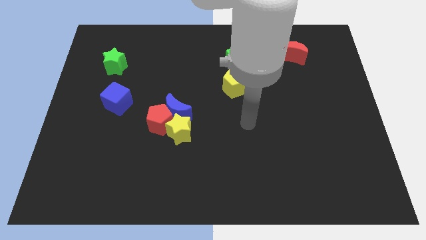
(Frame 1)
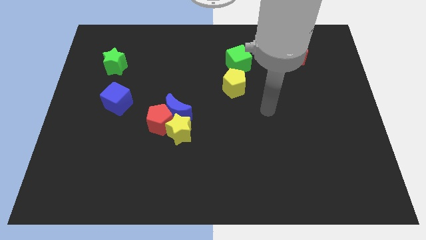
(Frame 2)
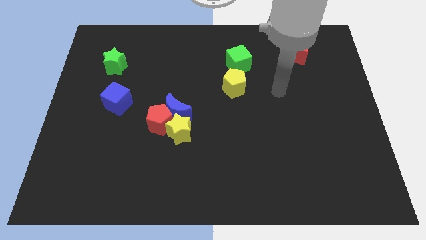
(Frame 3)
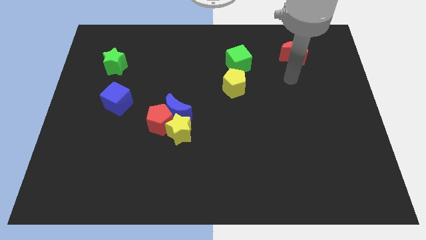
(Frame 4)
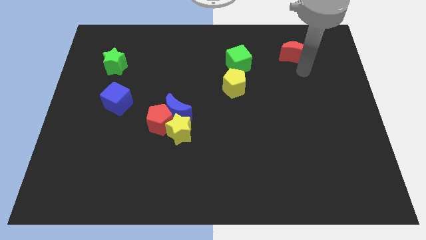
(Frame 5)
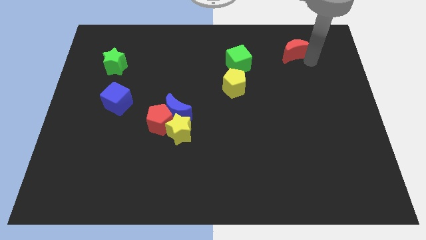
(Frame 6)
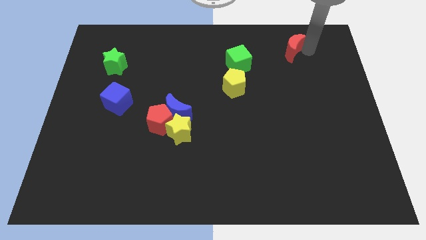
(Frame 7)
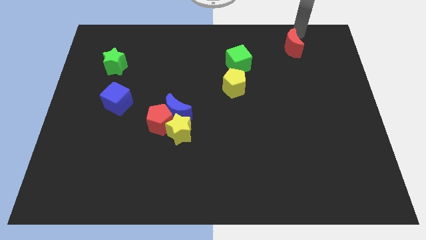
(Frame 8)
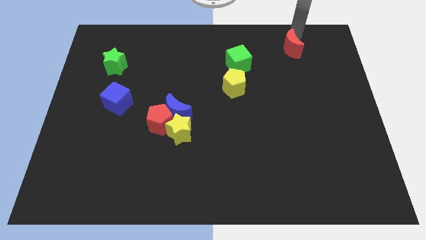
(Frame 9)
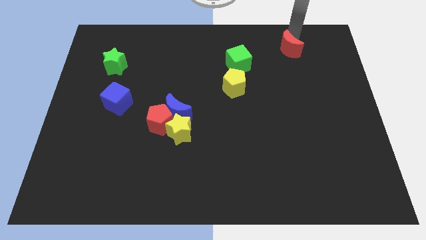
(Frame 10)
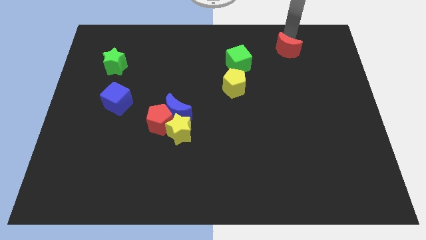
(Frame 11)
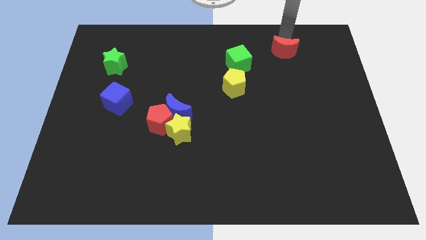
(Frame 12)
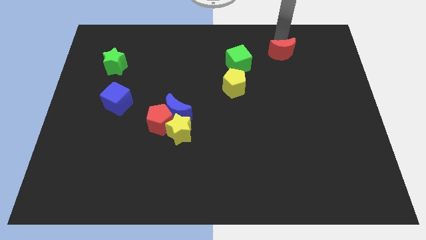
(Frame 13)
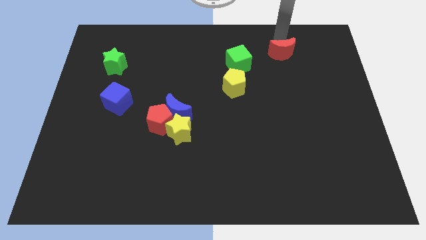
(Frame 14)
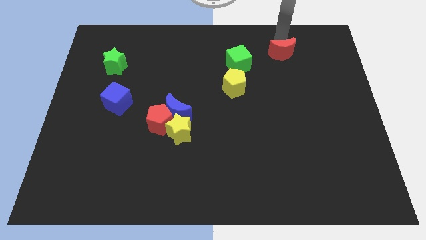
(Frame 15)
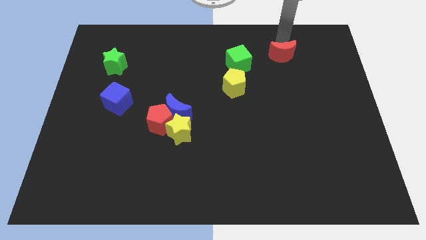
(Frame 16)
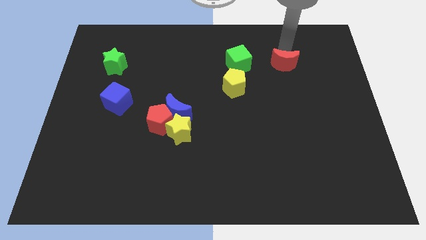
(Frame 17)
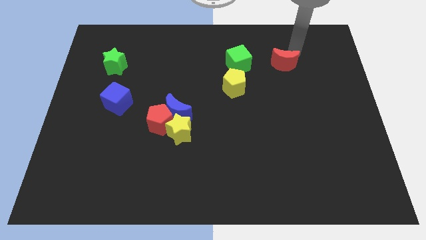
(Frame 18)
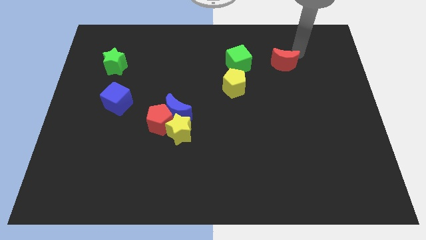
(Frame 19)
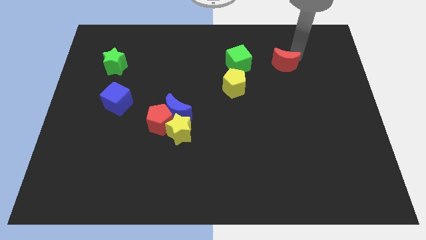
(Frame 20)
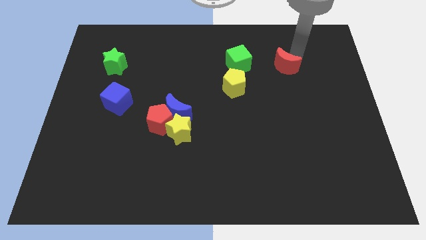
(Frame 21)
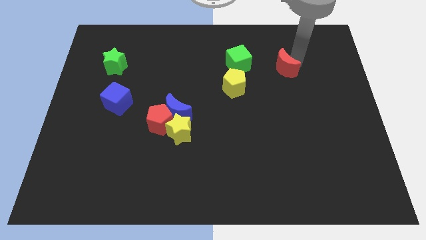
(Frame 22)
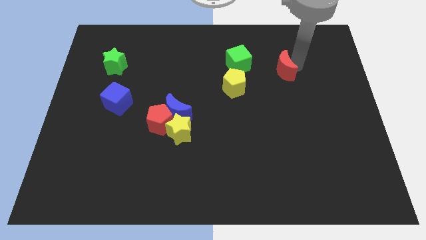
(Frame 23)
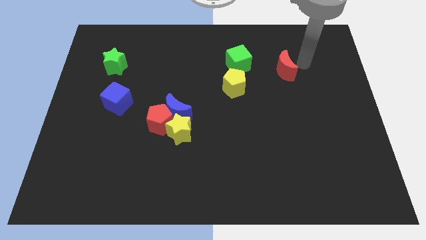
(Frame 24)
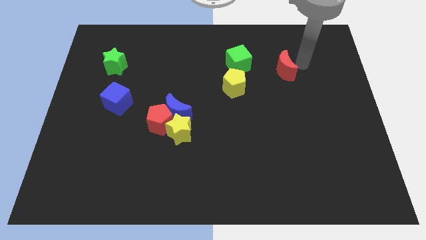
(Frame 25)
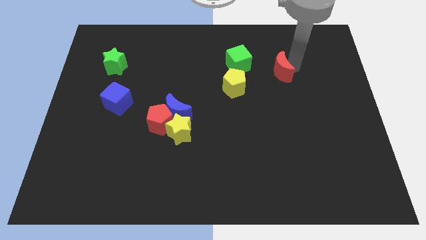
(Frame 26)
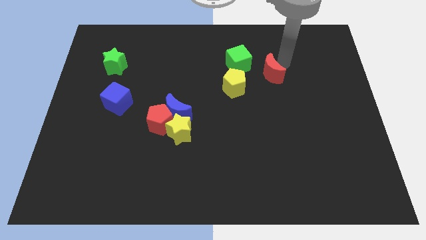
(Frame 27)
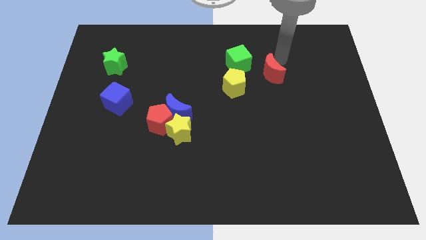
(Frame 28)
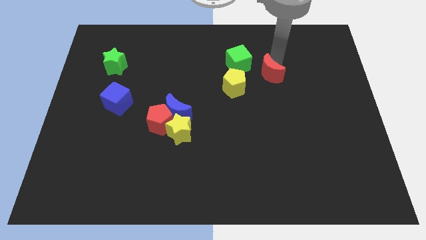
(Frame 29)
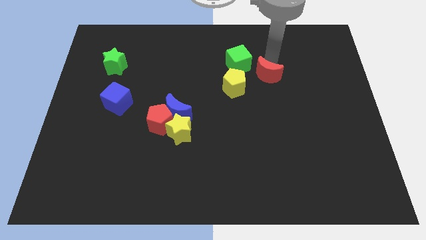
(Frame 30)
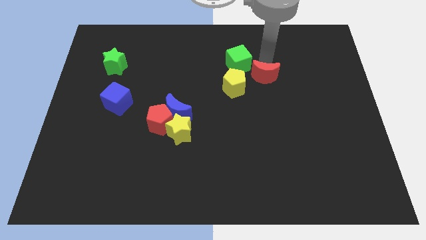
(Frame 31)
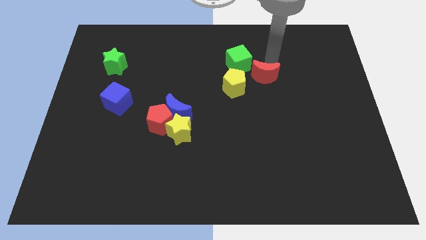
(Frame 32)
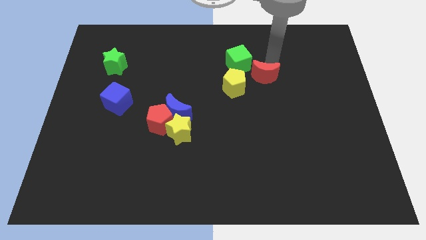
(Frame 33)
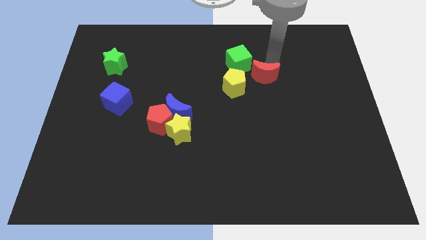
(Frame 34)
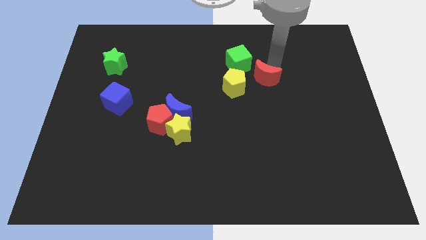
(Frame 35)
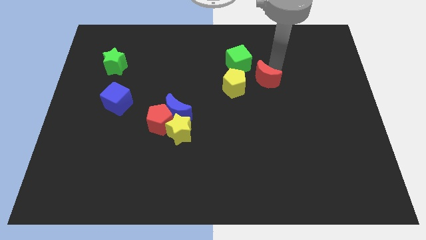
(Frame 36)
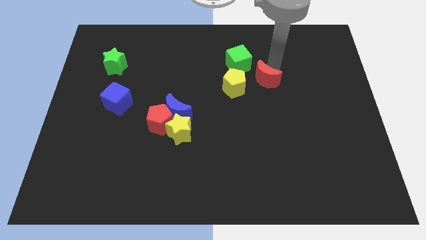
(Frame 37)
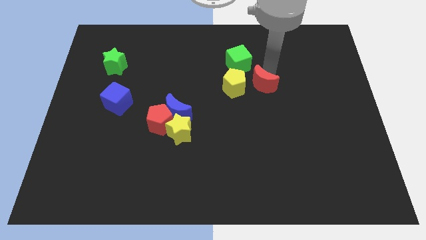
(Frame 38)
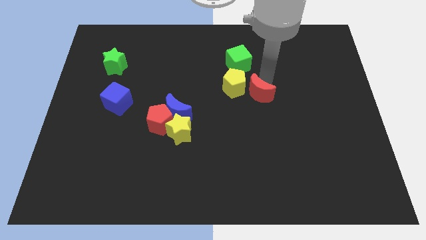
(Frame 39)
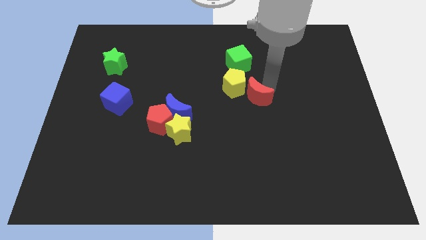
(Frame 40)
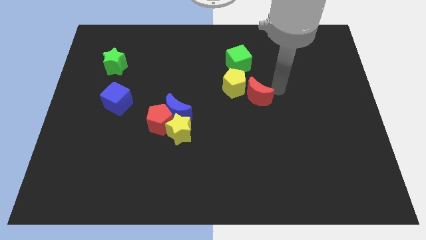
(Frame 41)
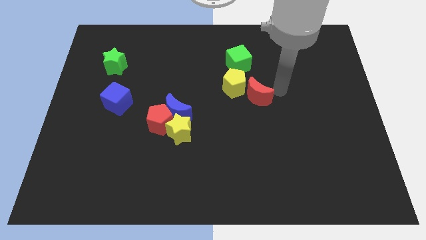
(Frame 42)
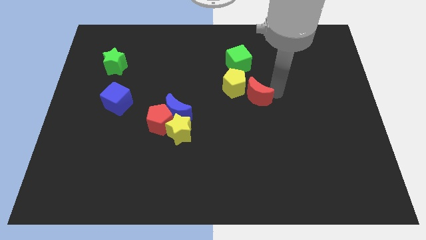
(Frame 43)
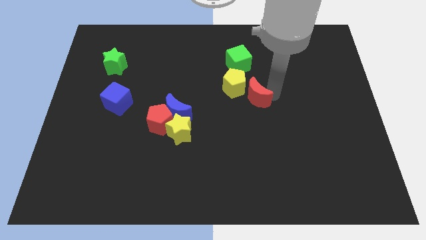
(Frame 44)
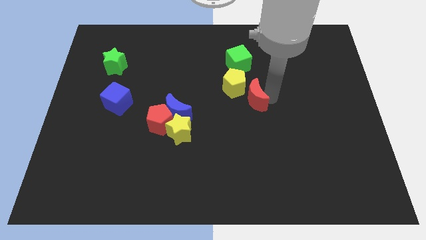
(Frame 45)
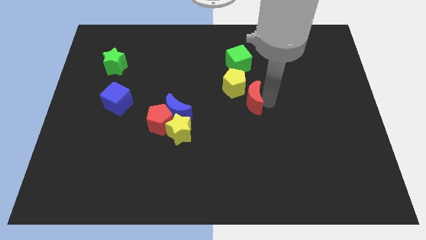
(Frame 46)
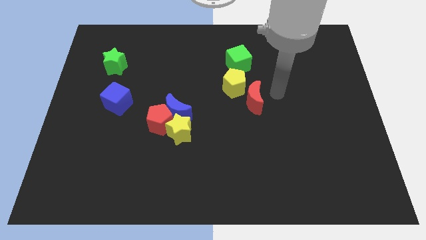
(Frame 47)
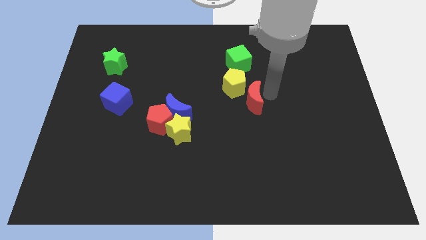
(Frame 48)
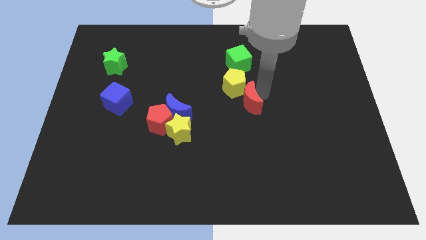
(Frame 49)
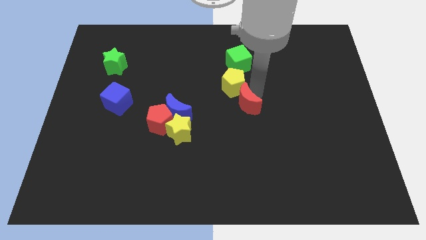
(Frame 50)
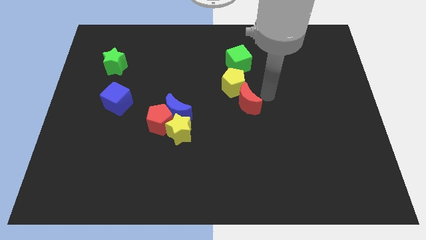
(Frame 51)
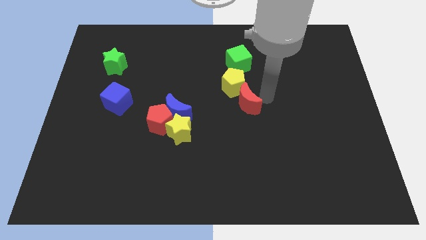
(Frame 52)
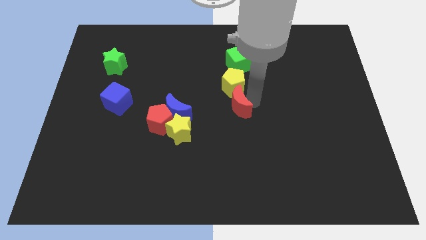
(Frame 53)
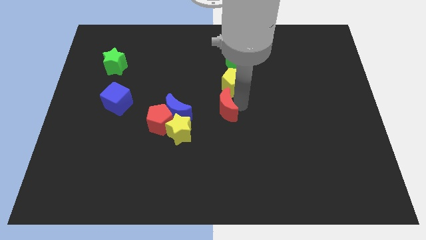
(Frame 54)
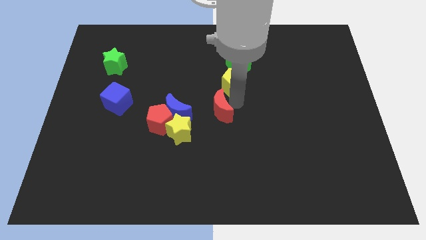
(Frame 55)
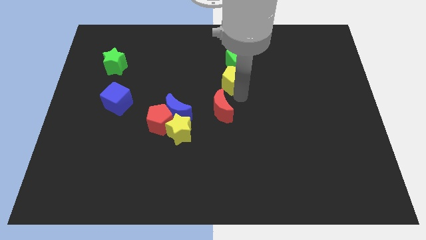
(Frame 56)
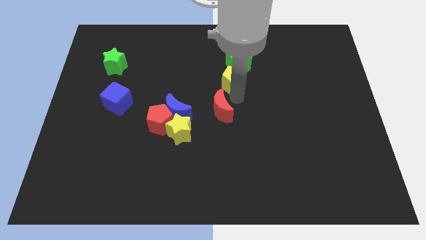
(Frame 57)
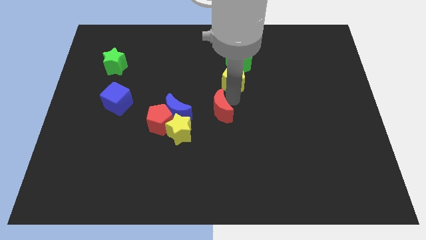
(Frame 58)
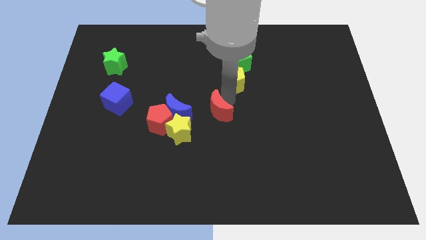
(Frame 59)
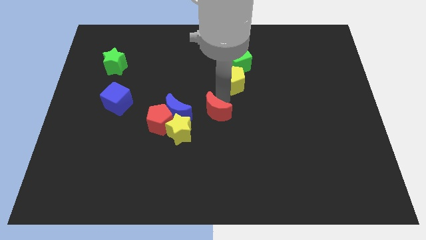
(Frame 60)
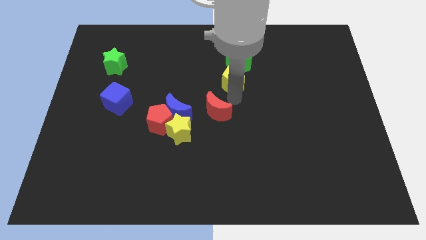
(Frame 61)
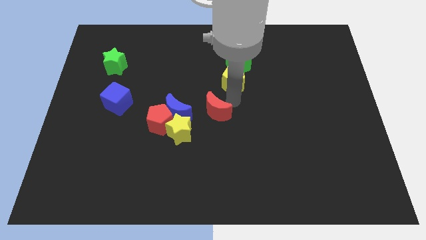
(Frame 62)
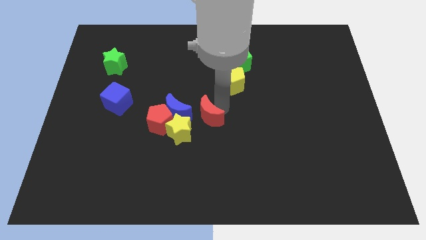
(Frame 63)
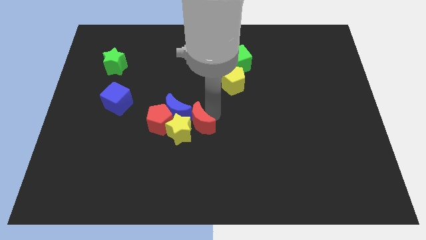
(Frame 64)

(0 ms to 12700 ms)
put the red moon next to the yellow star
